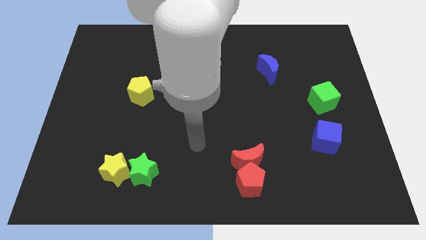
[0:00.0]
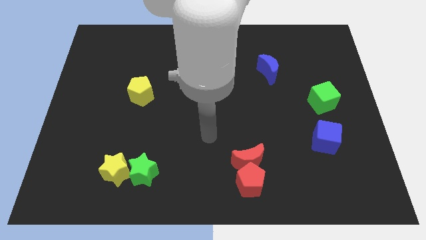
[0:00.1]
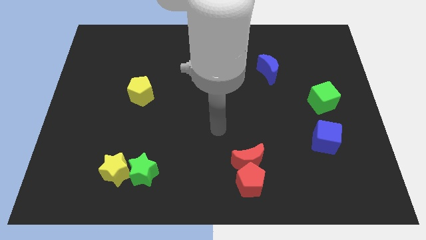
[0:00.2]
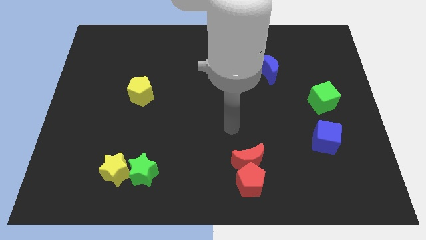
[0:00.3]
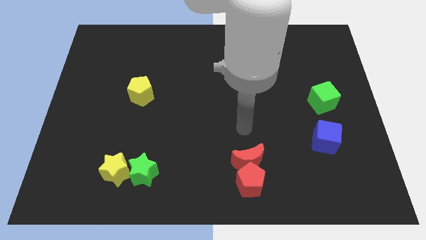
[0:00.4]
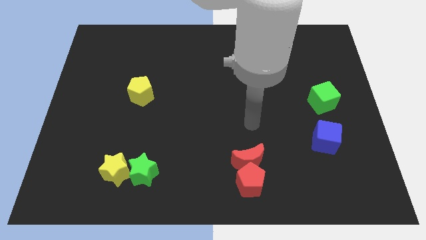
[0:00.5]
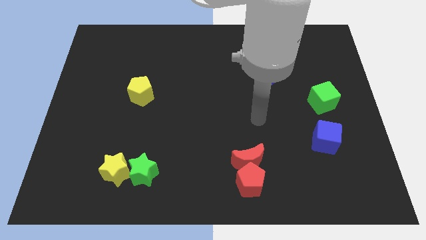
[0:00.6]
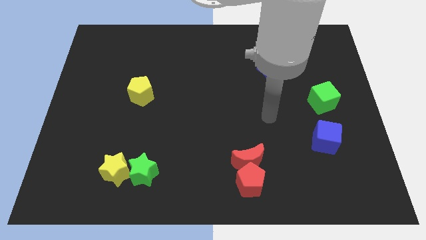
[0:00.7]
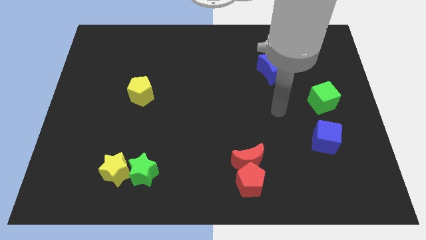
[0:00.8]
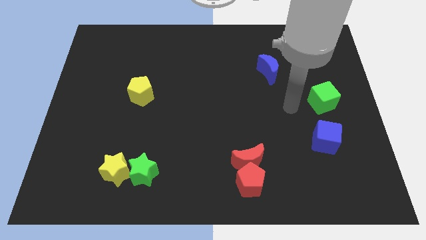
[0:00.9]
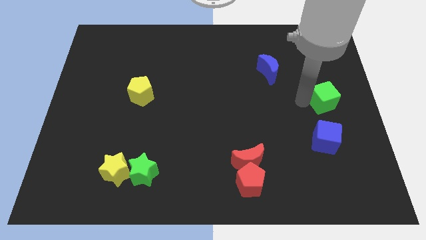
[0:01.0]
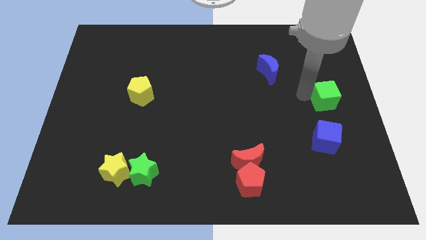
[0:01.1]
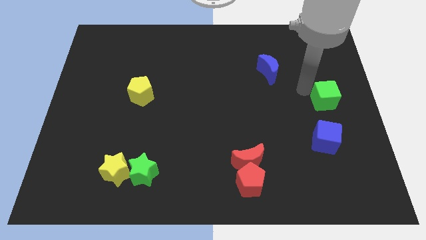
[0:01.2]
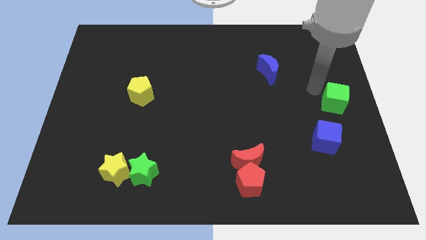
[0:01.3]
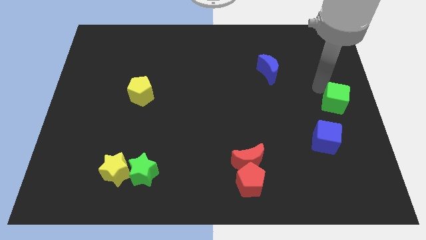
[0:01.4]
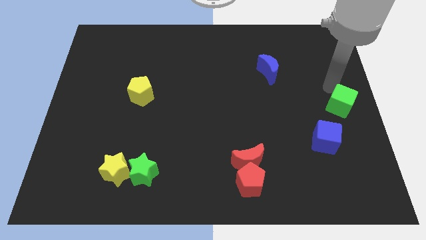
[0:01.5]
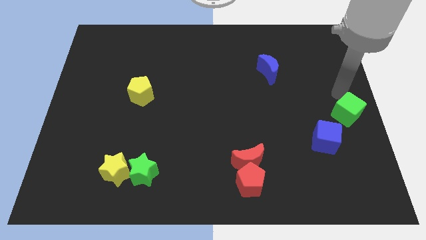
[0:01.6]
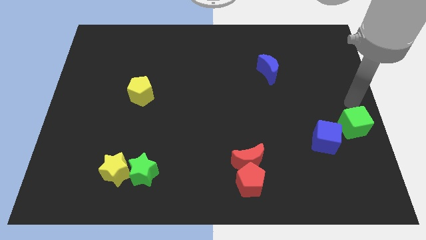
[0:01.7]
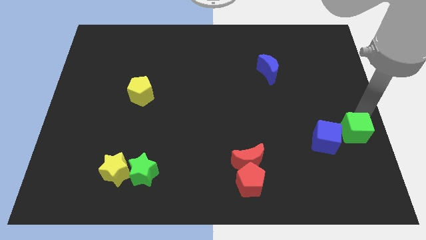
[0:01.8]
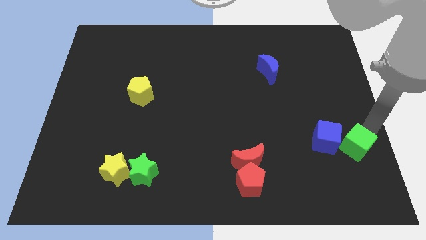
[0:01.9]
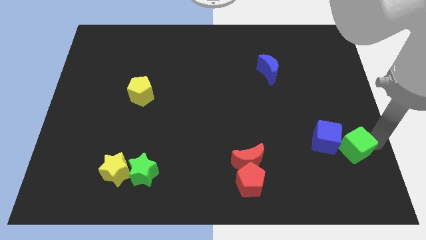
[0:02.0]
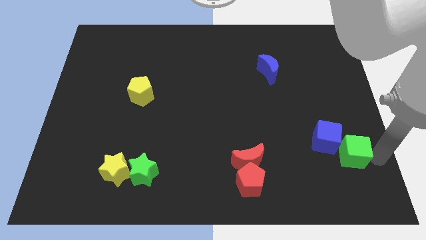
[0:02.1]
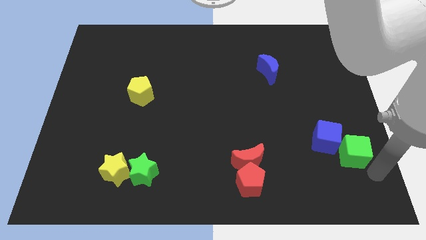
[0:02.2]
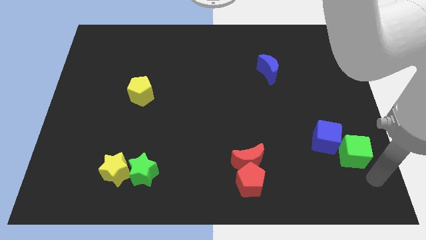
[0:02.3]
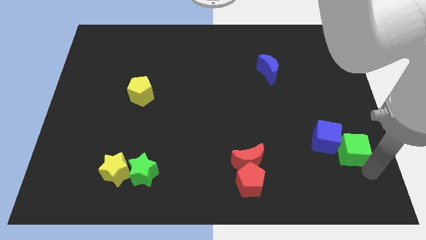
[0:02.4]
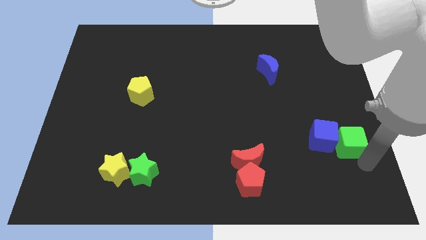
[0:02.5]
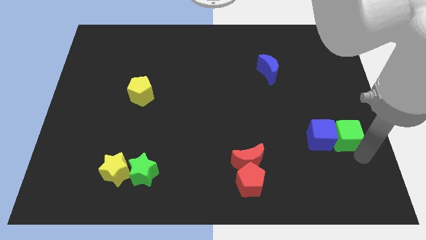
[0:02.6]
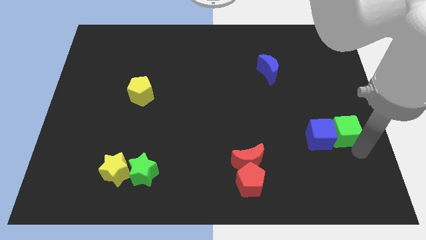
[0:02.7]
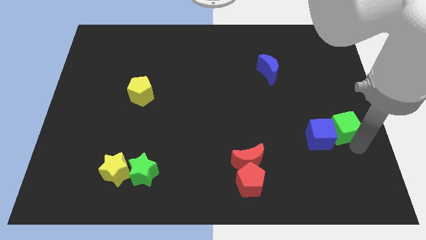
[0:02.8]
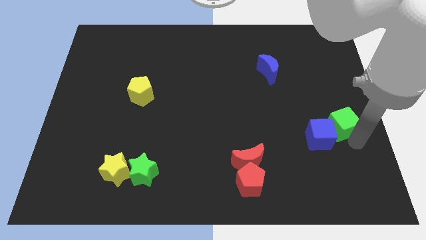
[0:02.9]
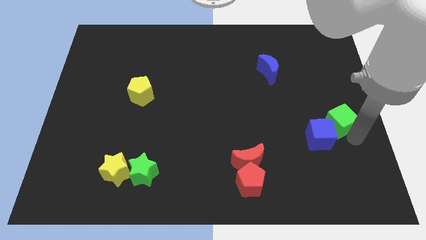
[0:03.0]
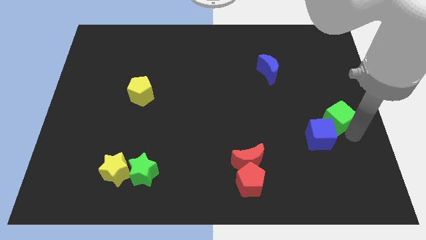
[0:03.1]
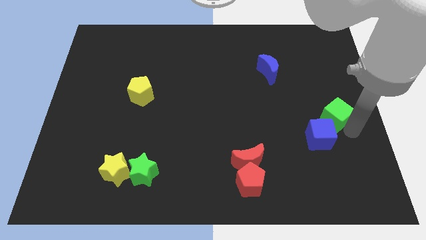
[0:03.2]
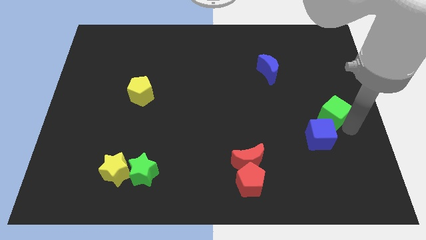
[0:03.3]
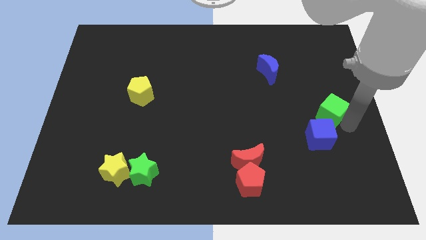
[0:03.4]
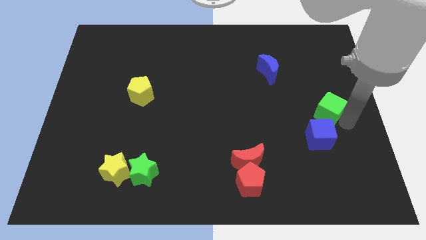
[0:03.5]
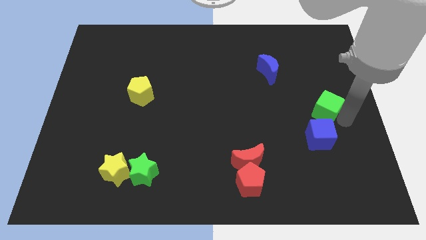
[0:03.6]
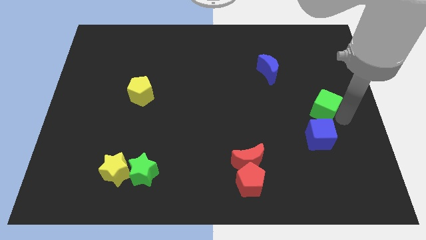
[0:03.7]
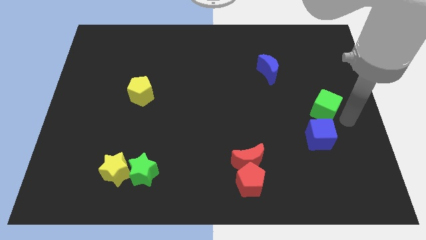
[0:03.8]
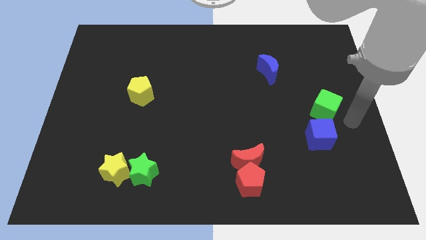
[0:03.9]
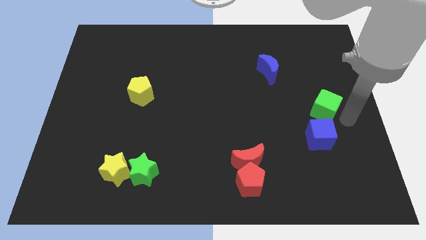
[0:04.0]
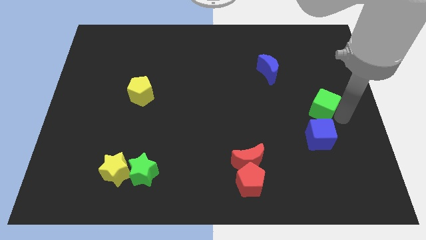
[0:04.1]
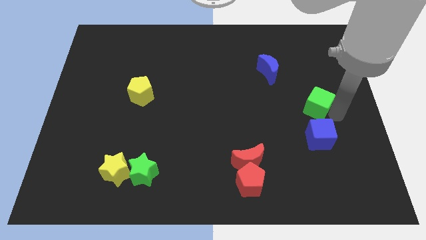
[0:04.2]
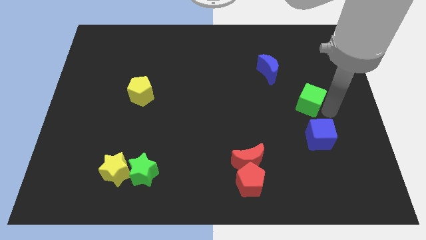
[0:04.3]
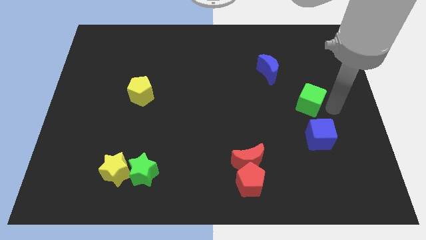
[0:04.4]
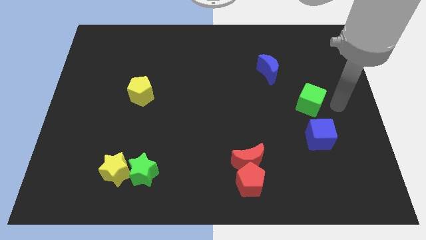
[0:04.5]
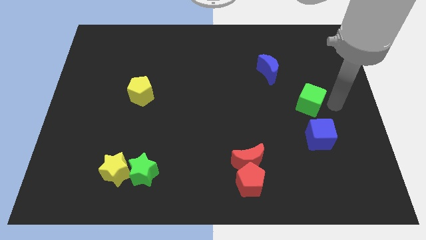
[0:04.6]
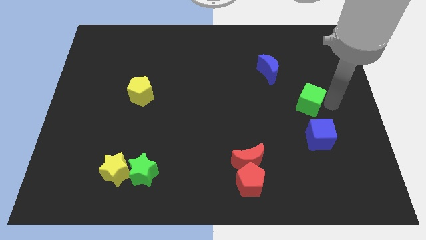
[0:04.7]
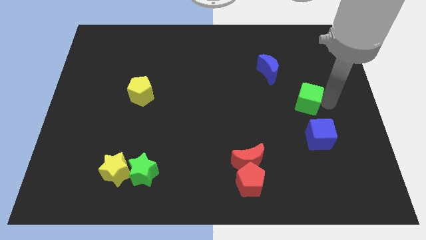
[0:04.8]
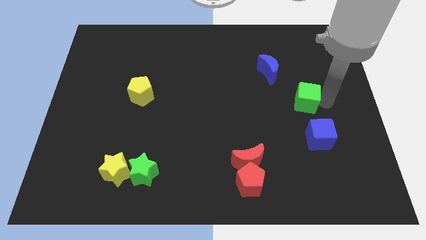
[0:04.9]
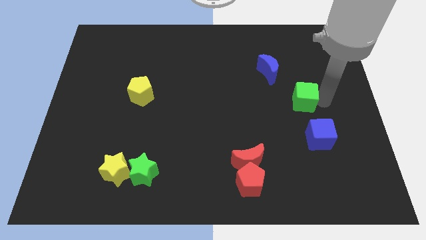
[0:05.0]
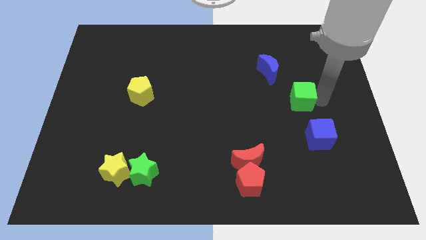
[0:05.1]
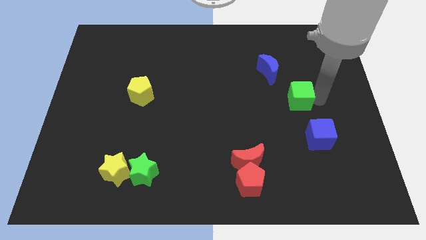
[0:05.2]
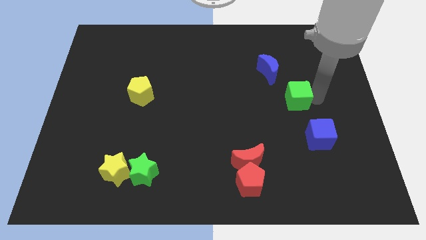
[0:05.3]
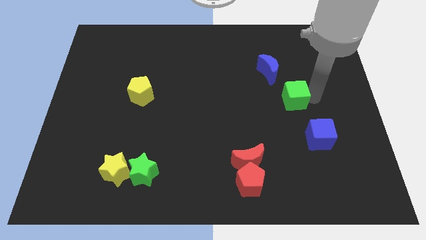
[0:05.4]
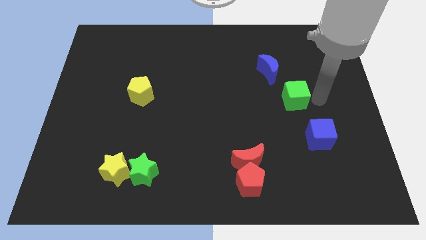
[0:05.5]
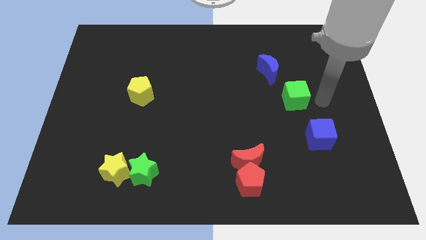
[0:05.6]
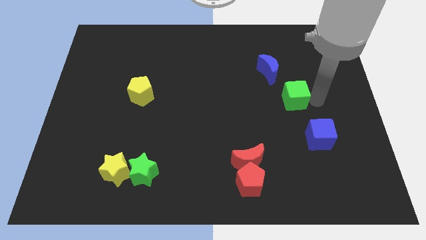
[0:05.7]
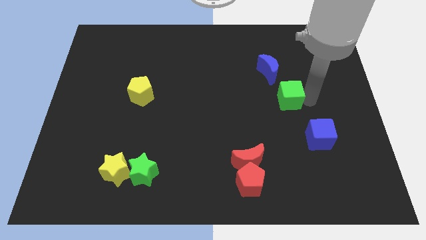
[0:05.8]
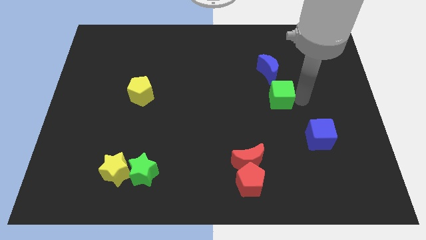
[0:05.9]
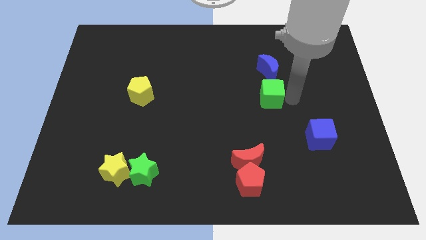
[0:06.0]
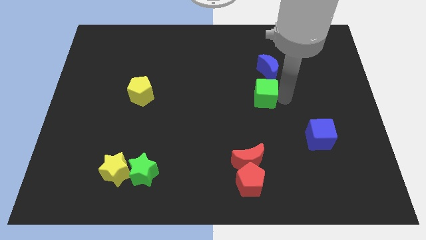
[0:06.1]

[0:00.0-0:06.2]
move the green cube to the center of the board

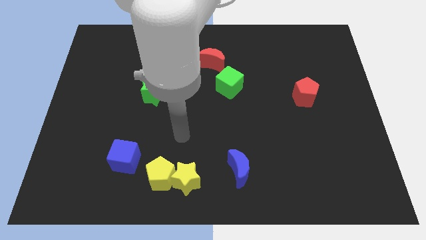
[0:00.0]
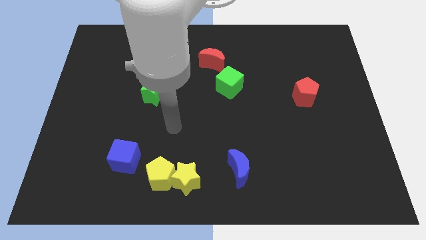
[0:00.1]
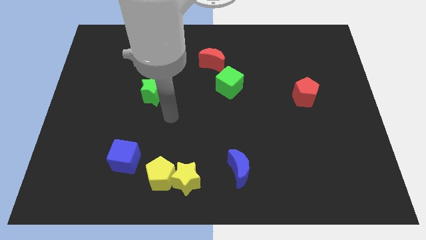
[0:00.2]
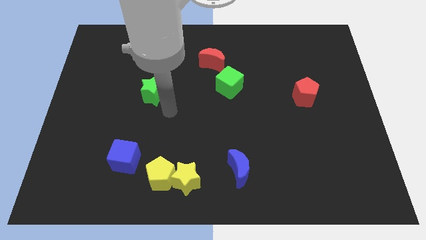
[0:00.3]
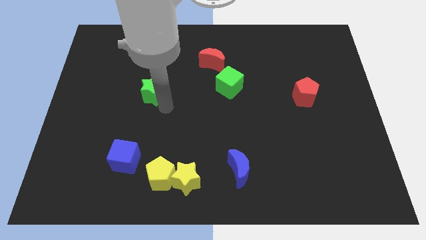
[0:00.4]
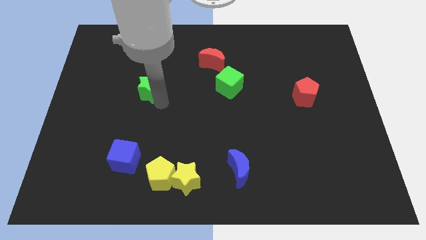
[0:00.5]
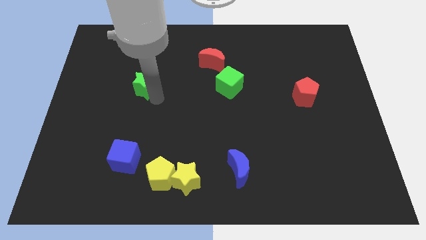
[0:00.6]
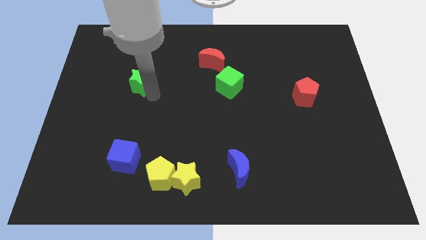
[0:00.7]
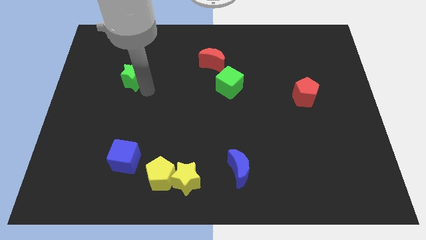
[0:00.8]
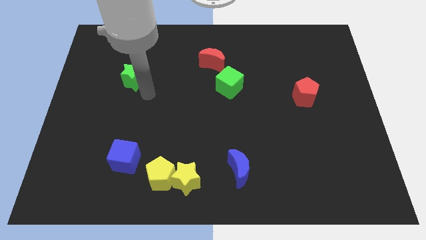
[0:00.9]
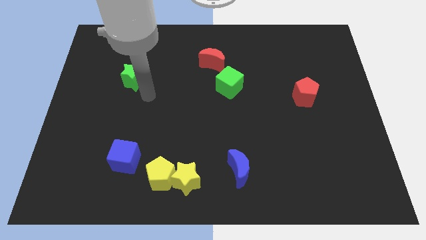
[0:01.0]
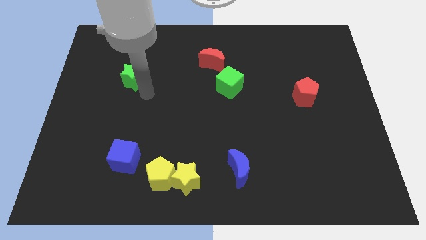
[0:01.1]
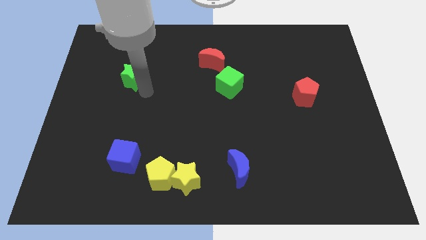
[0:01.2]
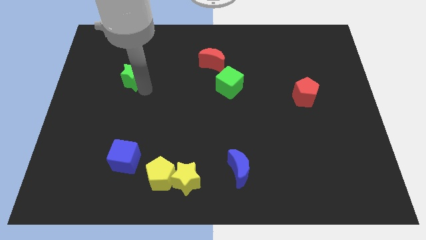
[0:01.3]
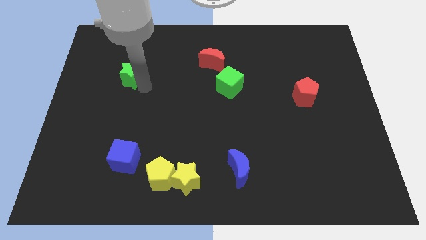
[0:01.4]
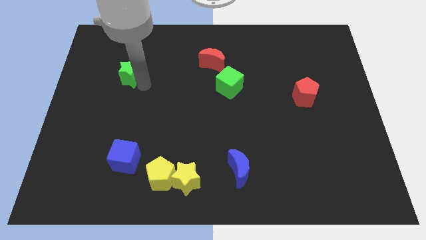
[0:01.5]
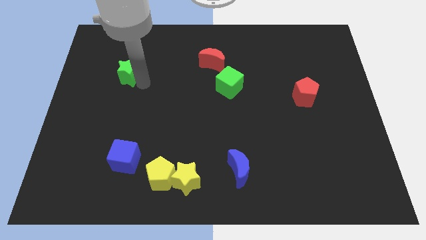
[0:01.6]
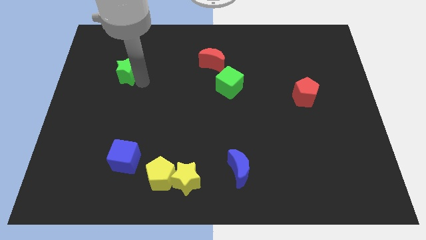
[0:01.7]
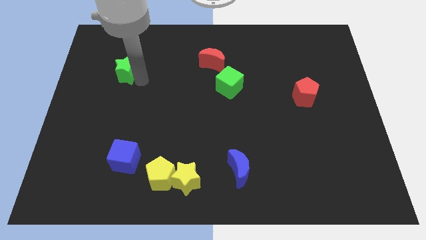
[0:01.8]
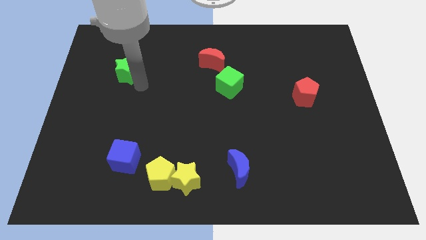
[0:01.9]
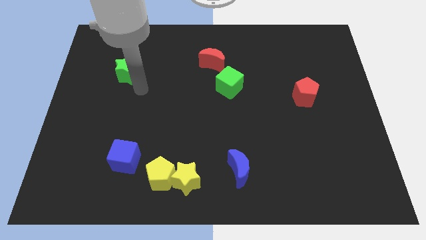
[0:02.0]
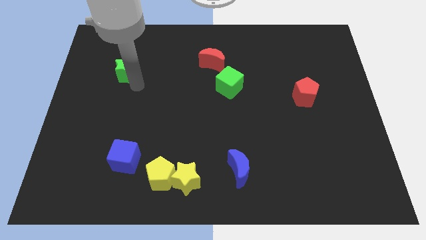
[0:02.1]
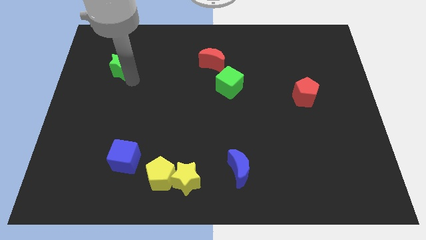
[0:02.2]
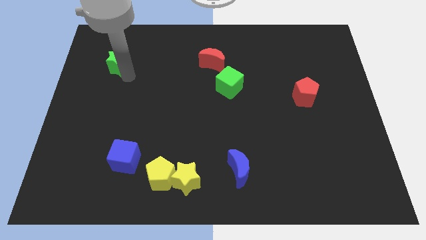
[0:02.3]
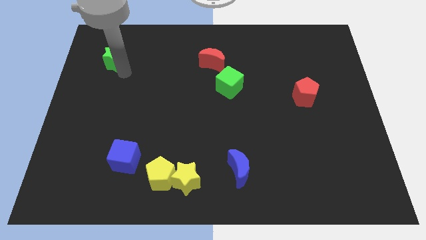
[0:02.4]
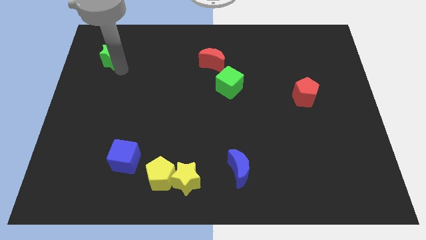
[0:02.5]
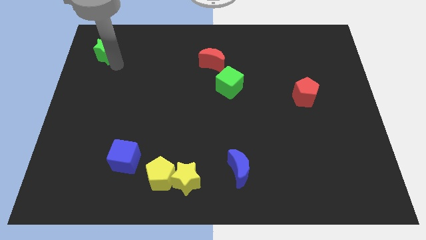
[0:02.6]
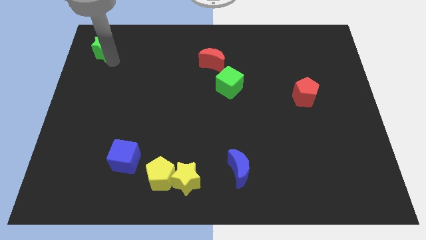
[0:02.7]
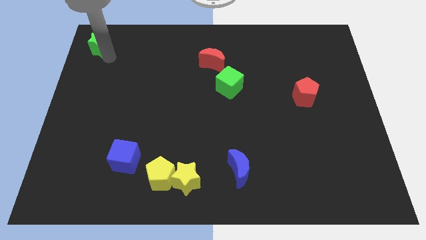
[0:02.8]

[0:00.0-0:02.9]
push the green star to the top left
